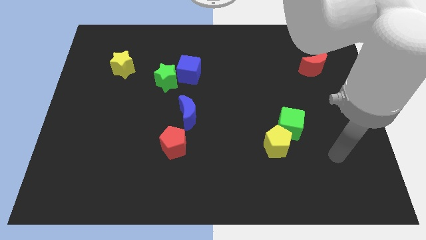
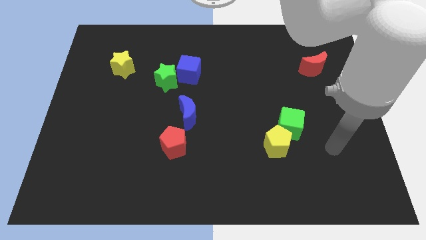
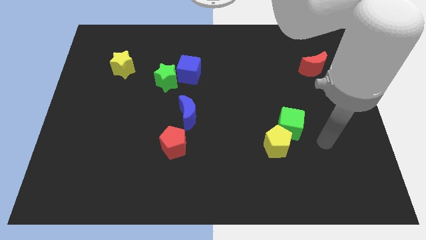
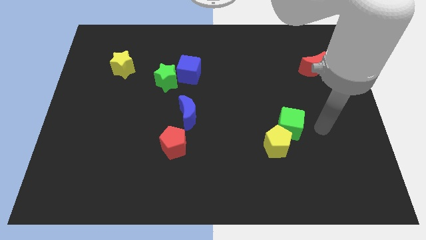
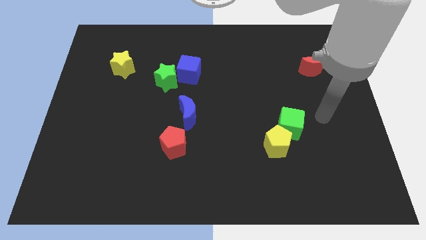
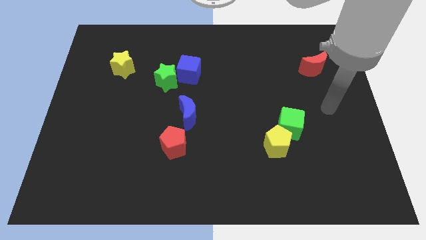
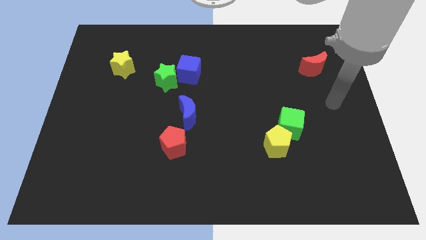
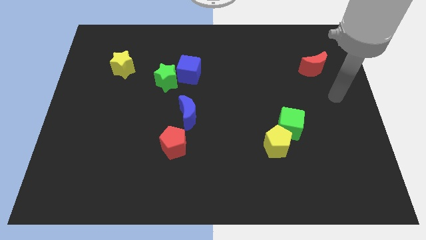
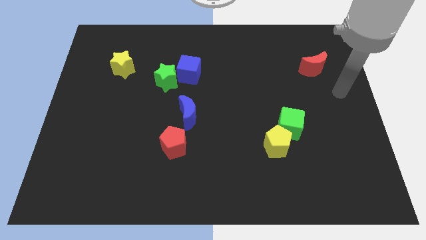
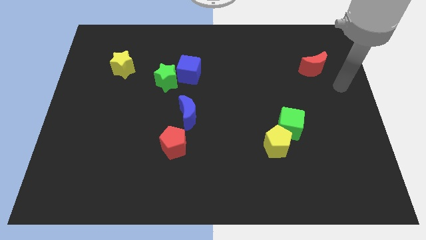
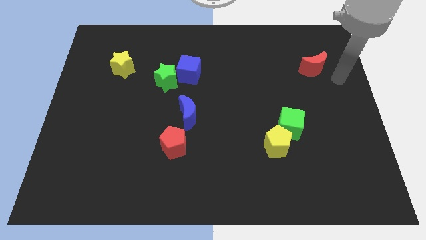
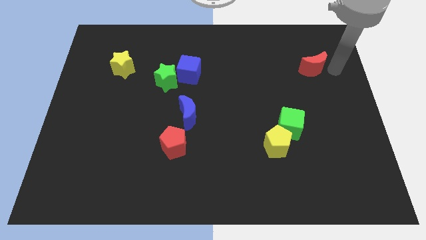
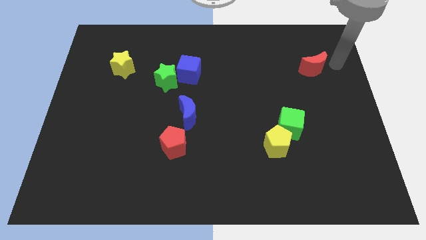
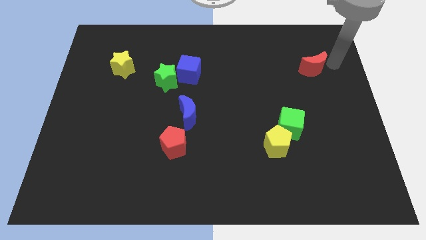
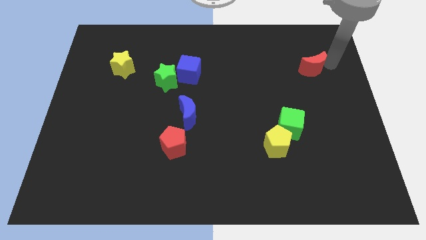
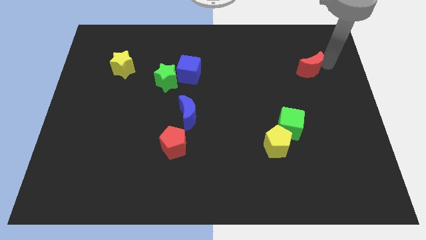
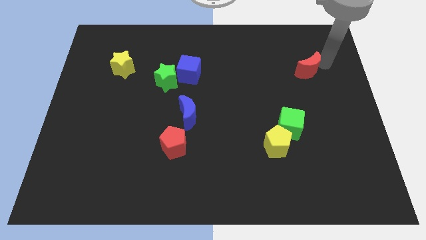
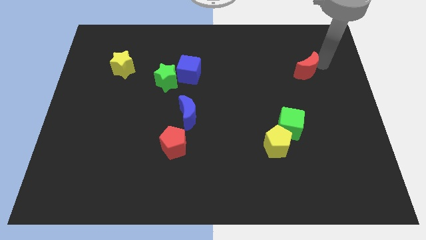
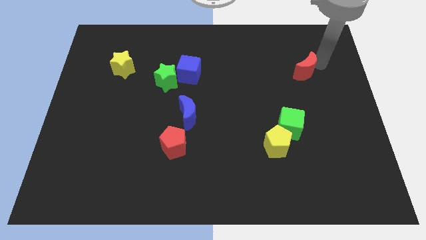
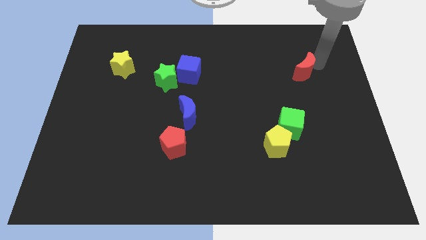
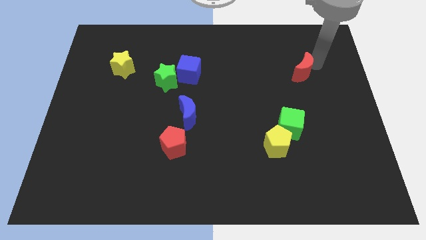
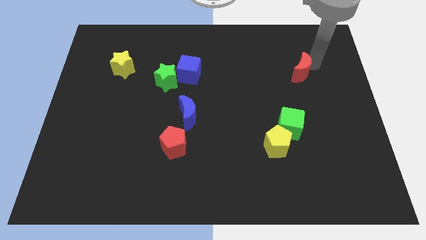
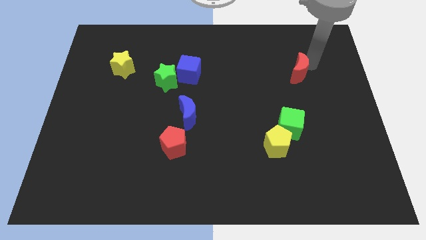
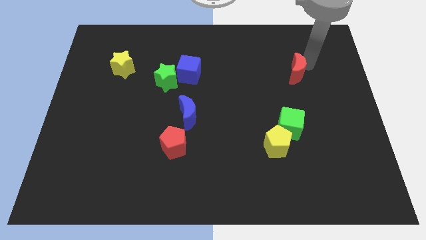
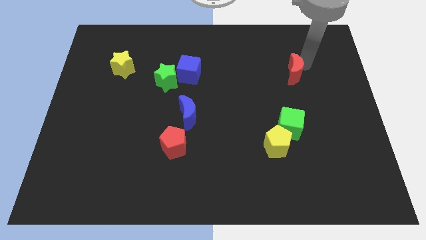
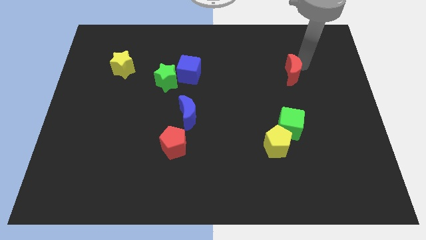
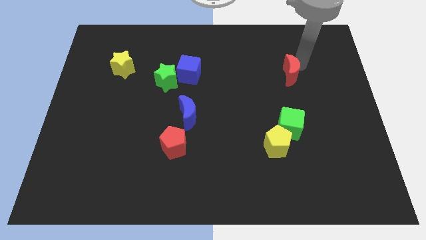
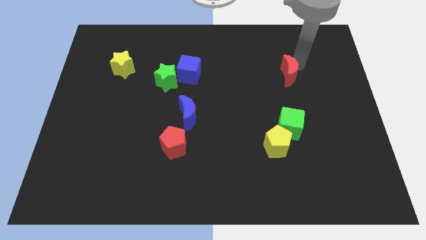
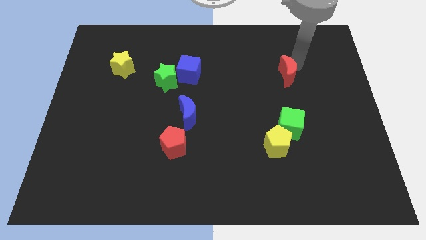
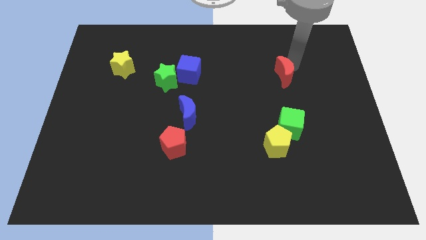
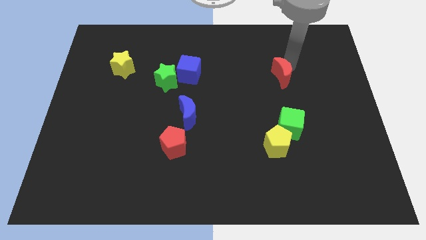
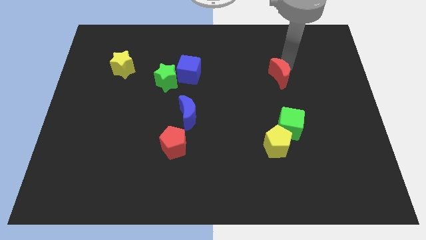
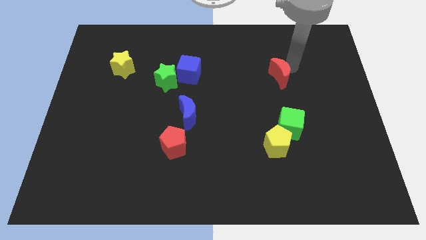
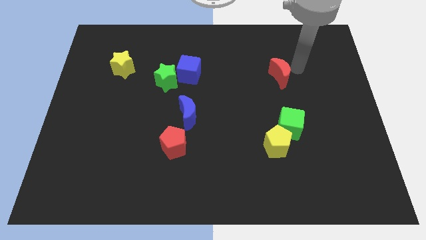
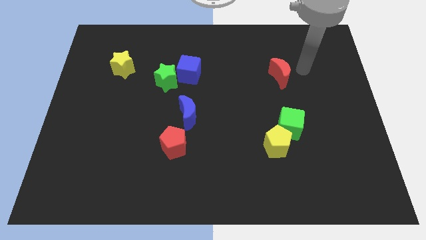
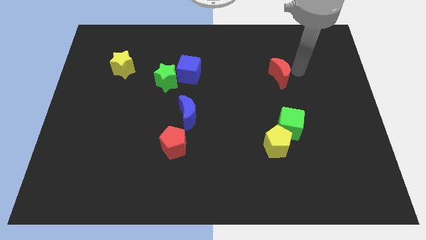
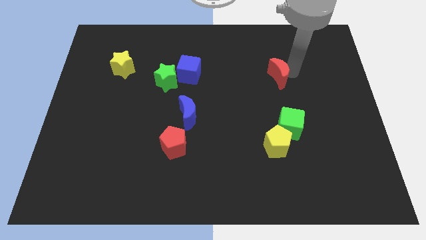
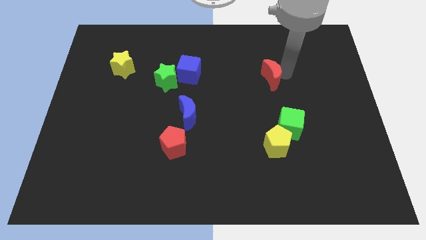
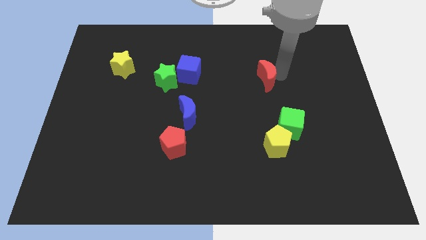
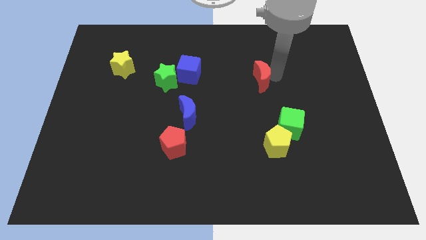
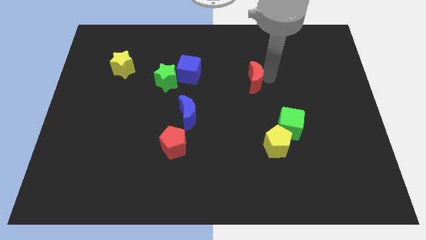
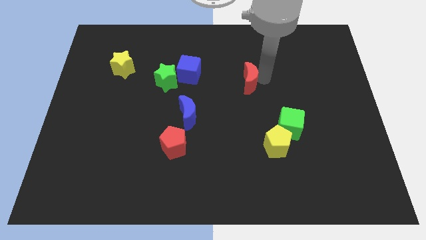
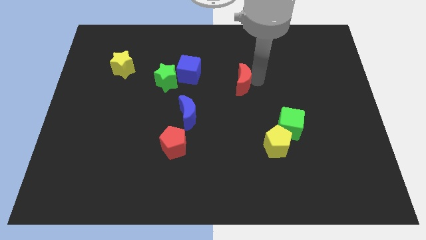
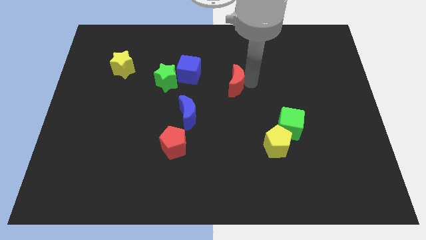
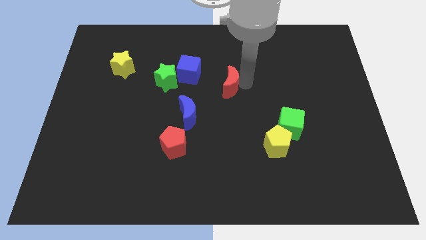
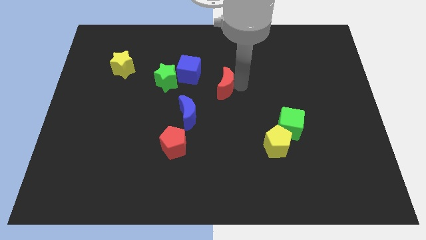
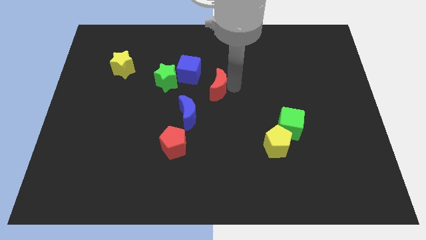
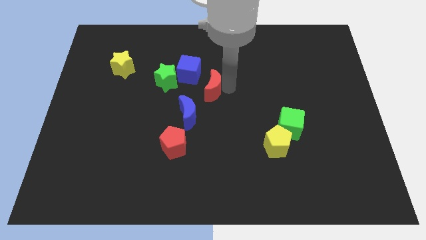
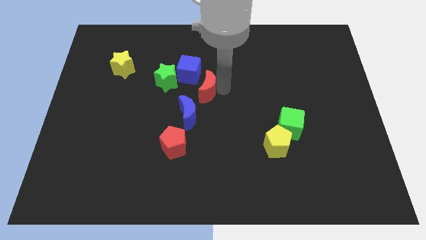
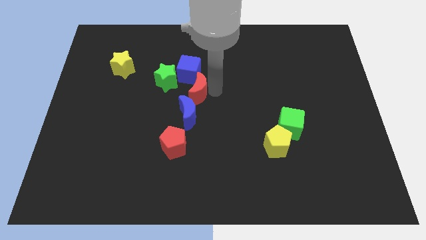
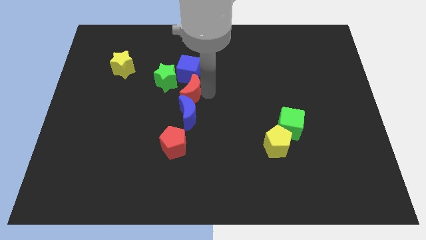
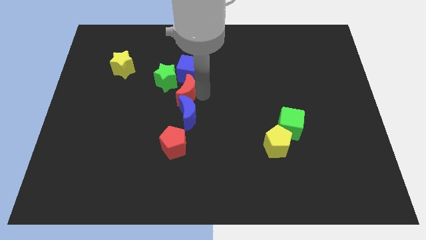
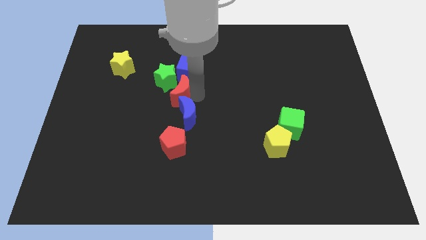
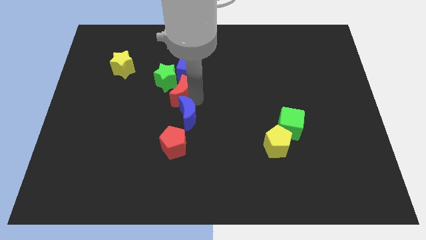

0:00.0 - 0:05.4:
move the red moon next to the green star

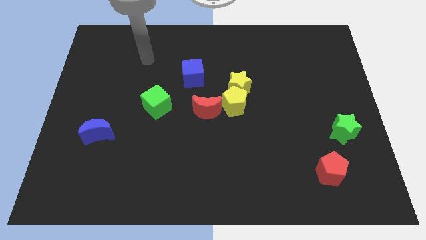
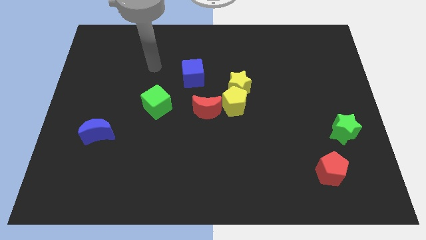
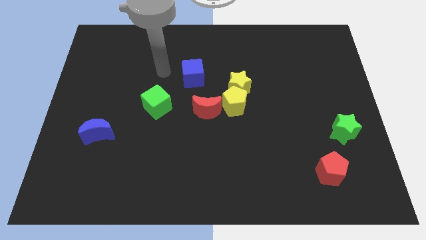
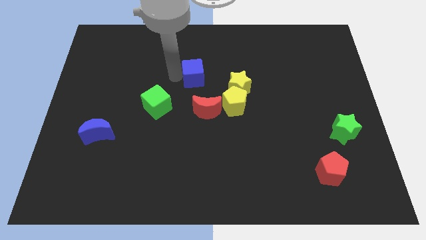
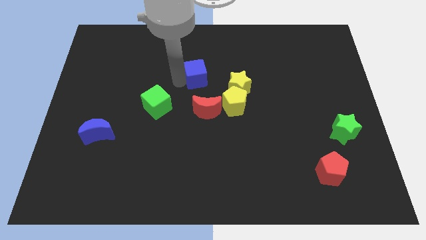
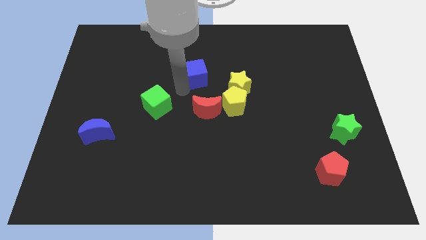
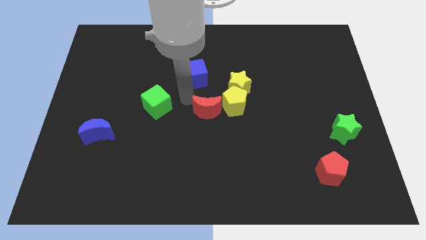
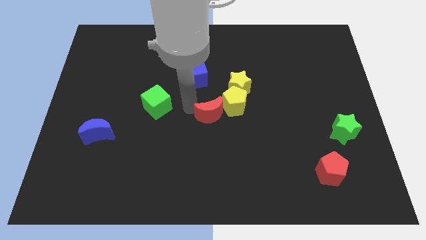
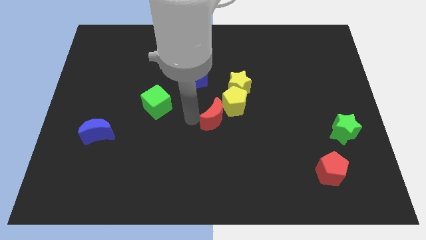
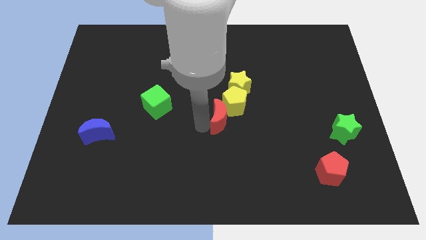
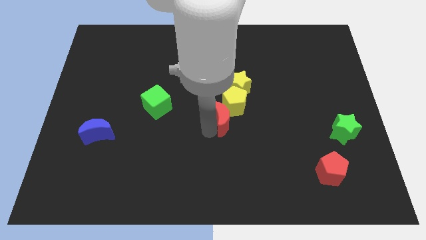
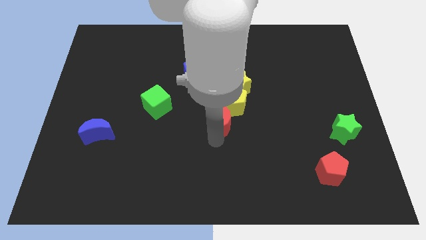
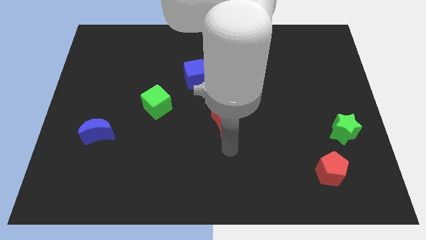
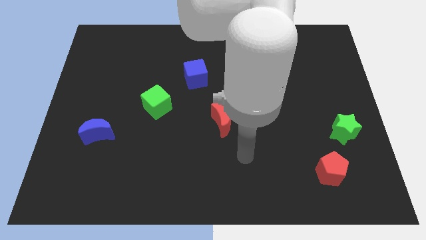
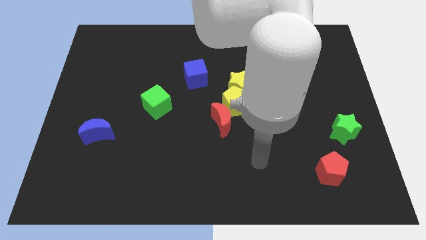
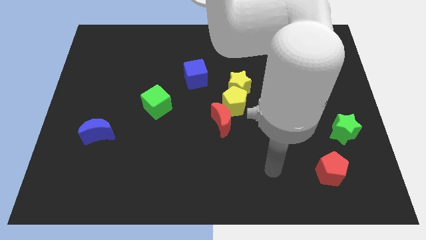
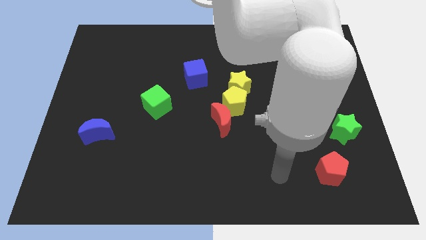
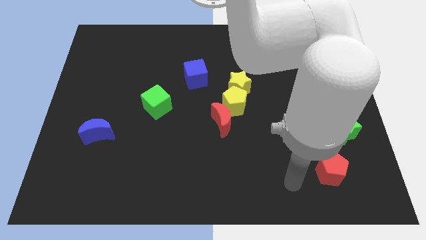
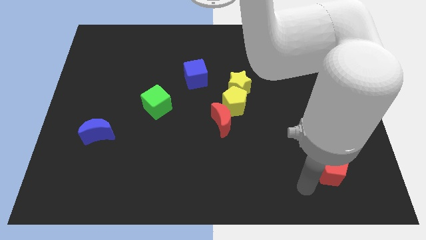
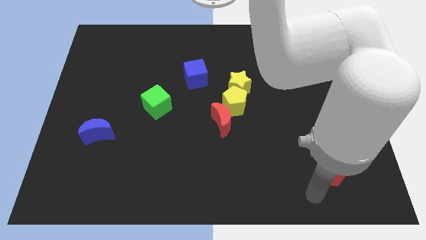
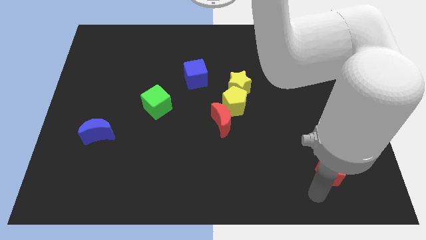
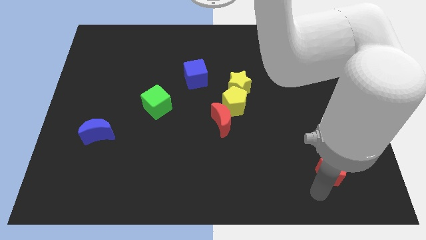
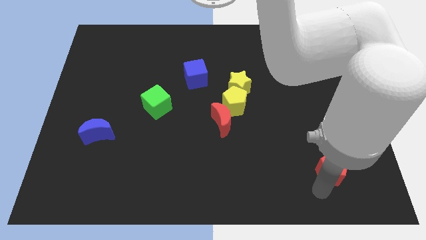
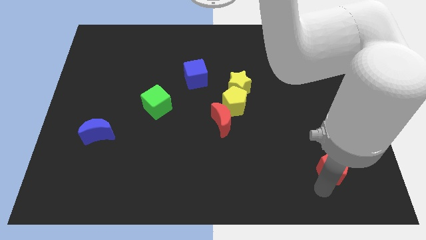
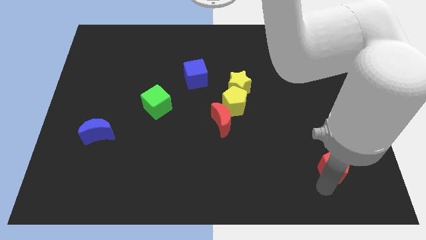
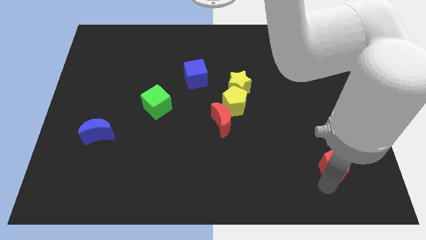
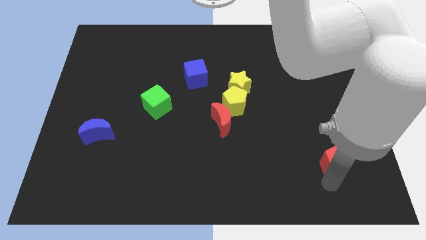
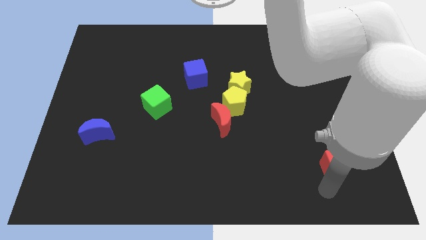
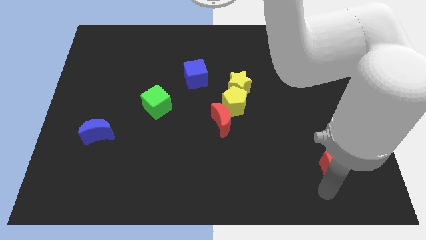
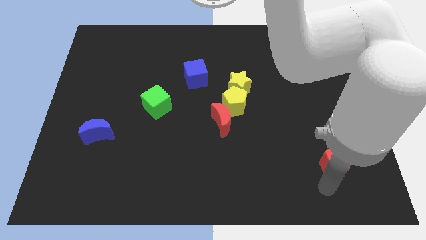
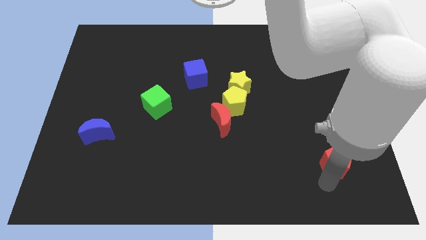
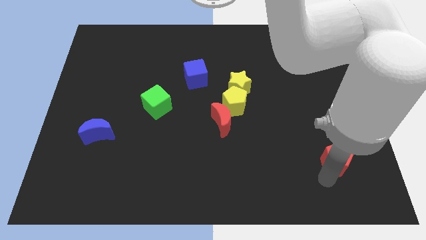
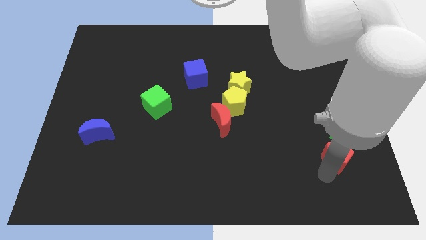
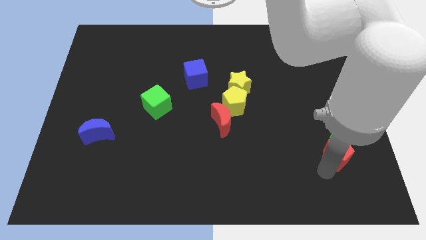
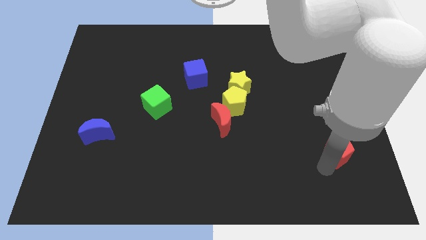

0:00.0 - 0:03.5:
put the red pentagon to the green star
